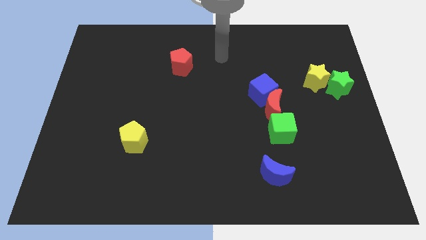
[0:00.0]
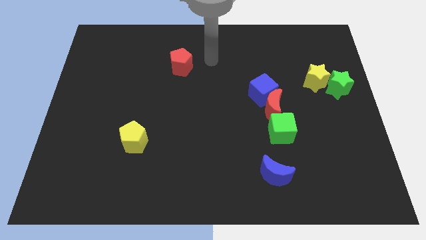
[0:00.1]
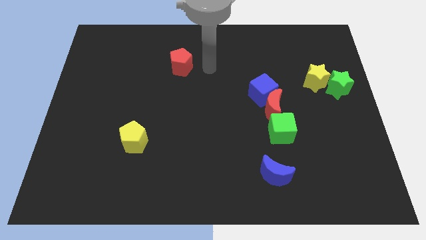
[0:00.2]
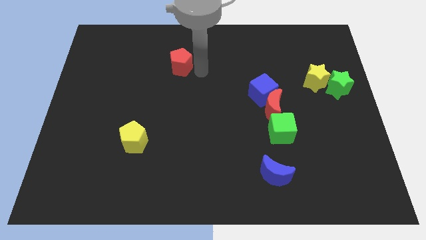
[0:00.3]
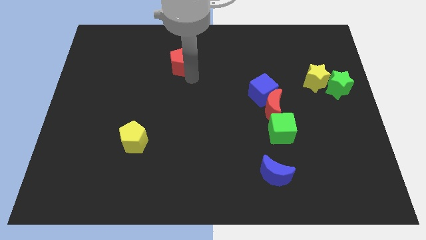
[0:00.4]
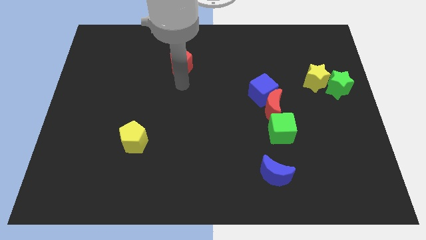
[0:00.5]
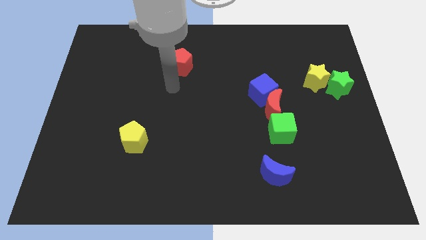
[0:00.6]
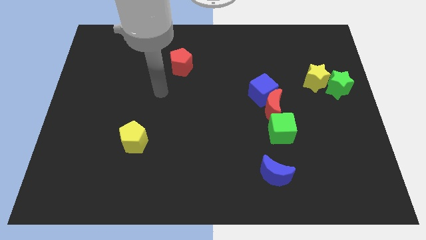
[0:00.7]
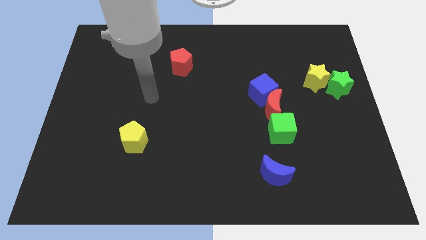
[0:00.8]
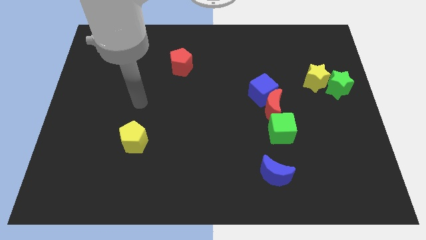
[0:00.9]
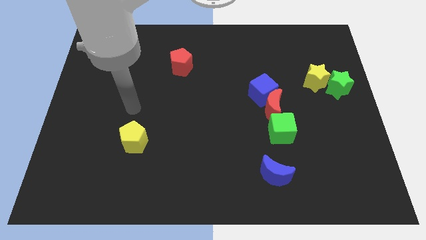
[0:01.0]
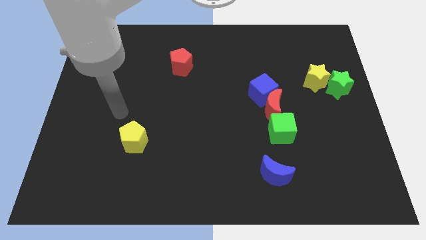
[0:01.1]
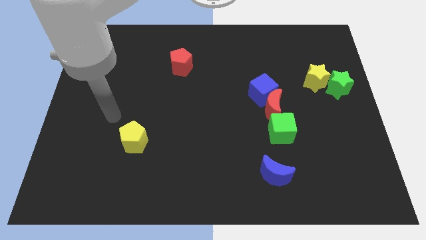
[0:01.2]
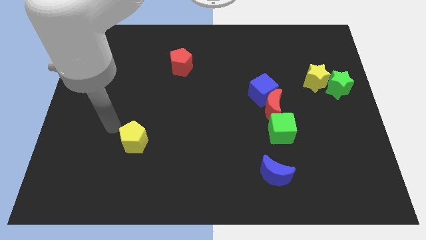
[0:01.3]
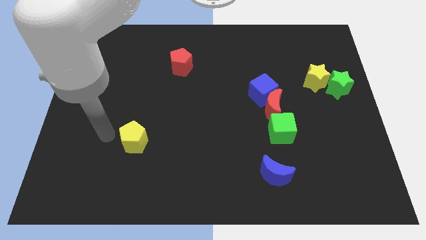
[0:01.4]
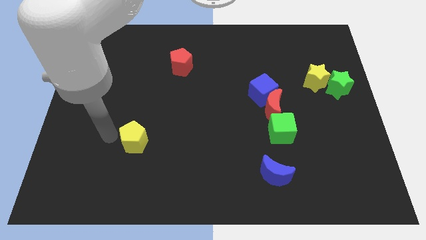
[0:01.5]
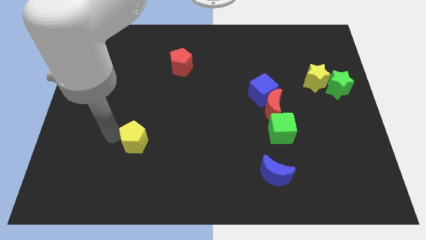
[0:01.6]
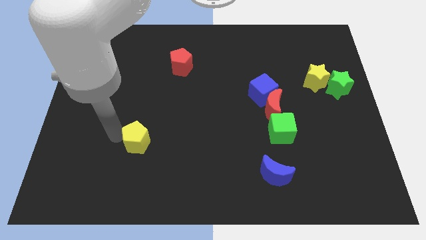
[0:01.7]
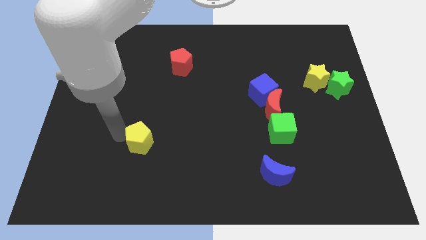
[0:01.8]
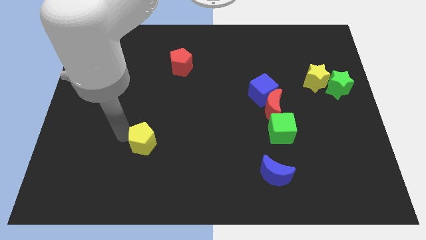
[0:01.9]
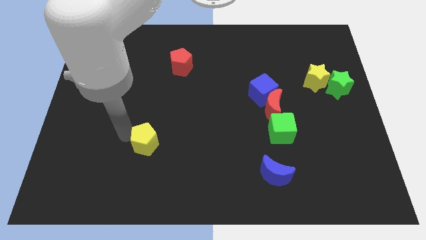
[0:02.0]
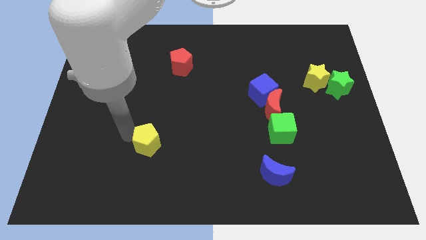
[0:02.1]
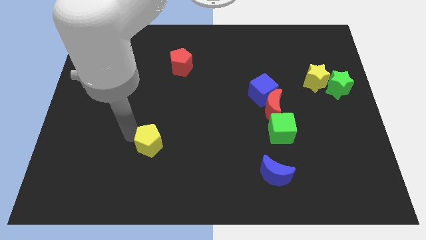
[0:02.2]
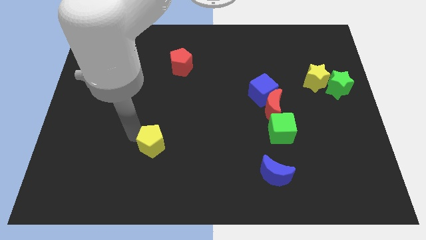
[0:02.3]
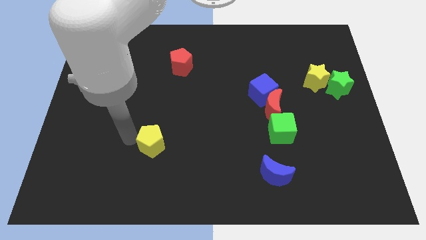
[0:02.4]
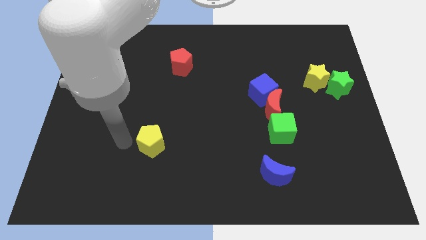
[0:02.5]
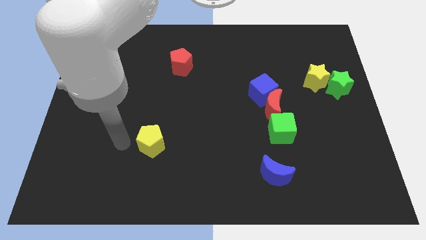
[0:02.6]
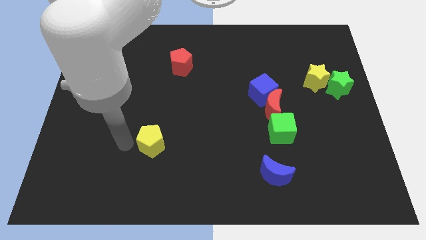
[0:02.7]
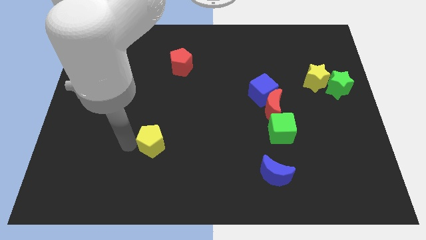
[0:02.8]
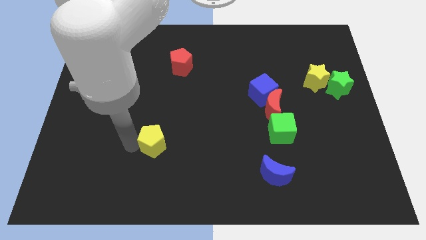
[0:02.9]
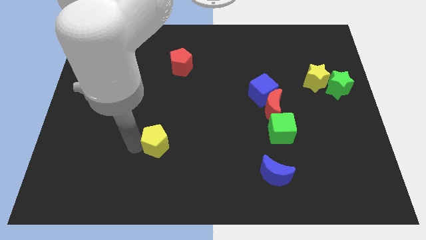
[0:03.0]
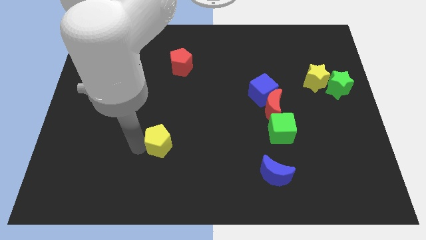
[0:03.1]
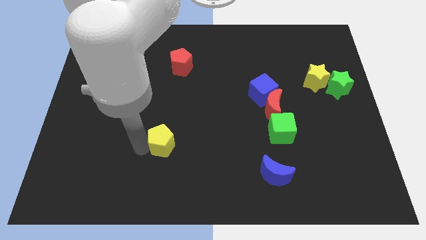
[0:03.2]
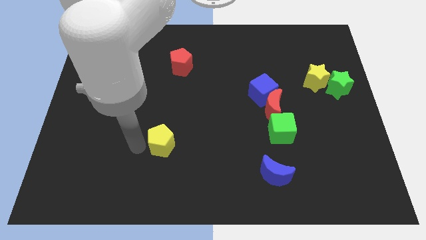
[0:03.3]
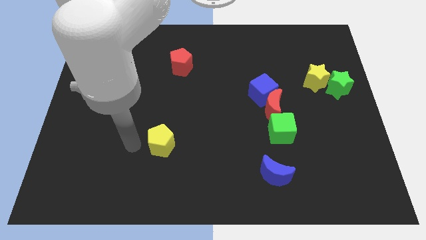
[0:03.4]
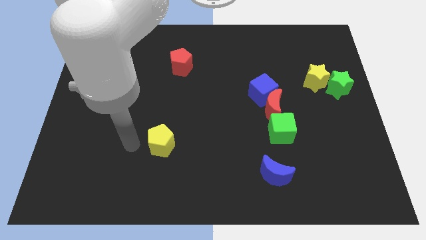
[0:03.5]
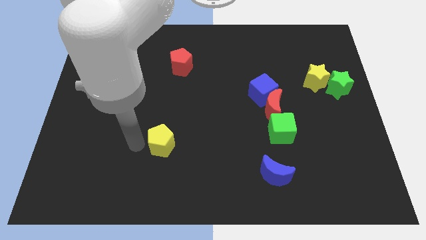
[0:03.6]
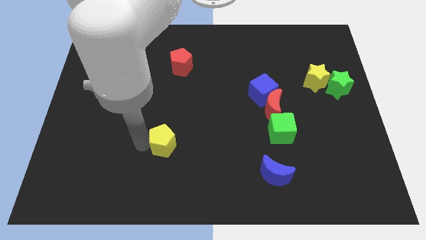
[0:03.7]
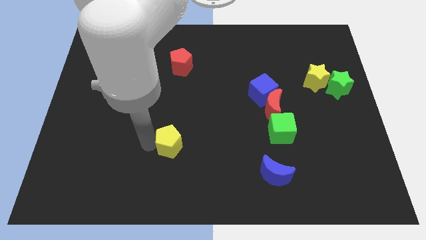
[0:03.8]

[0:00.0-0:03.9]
move the yellow pentagon a little bit right

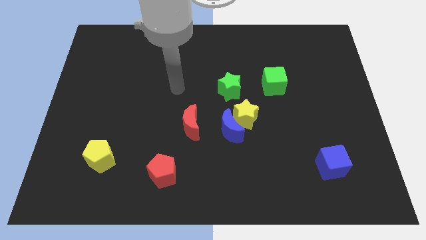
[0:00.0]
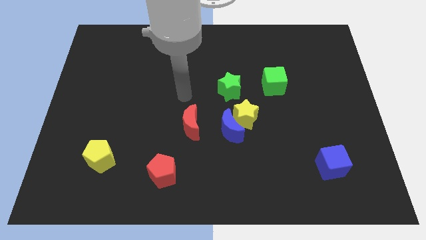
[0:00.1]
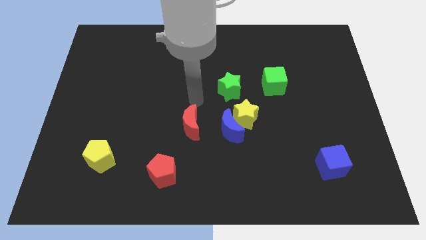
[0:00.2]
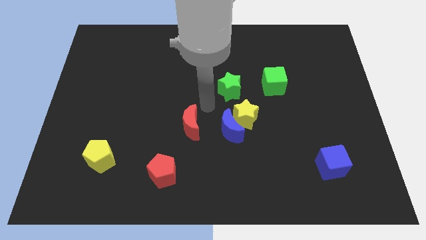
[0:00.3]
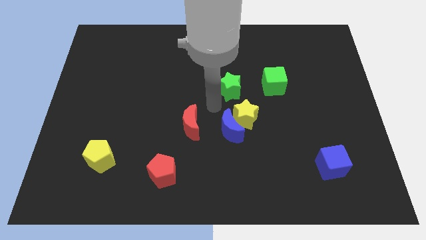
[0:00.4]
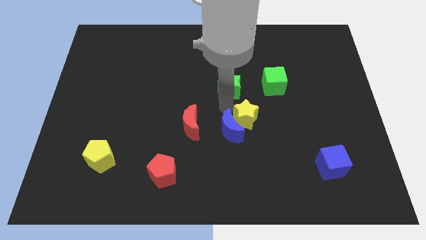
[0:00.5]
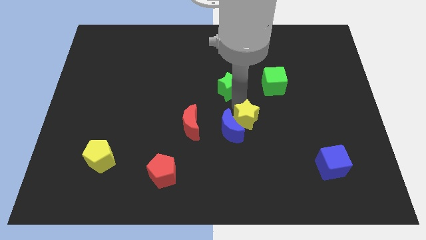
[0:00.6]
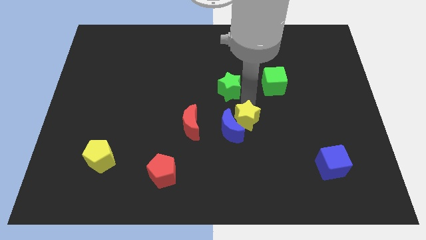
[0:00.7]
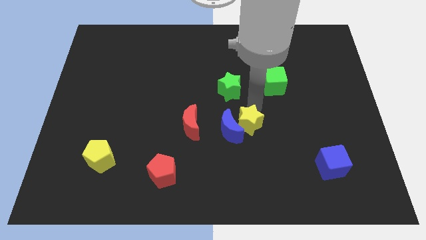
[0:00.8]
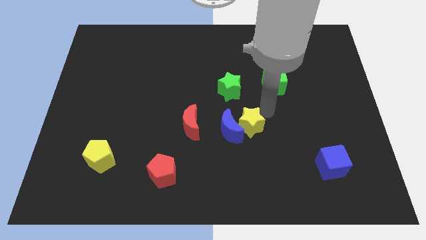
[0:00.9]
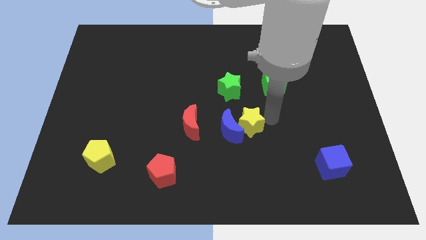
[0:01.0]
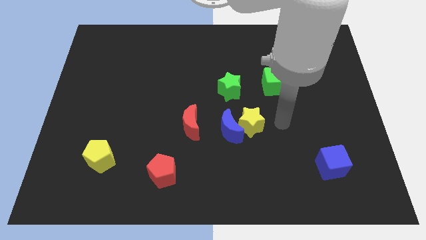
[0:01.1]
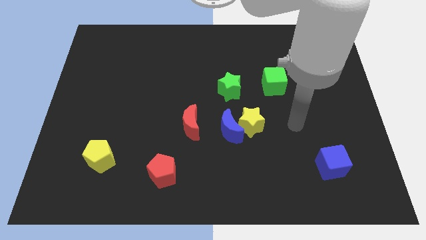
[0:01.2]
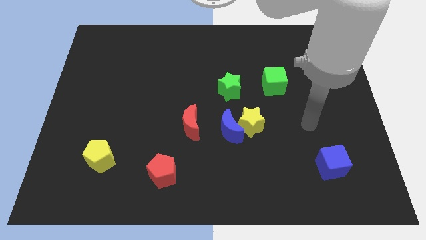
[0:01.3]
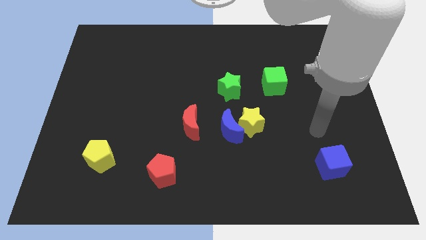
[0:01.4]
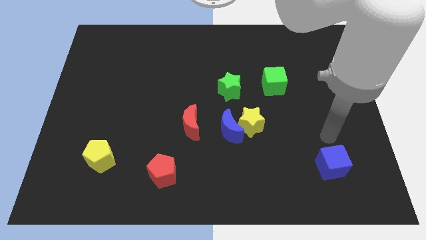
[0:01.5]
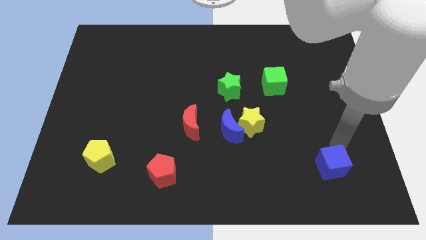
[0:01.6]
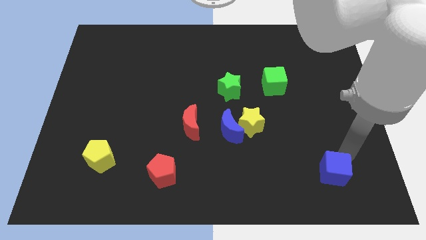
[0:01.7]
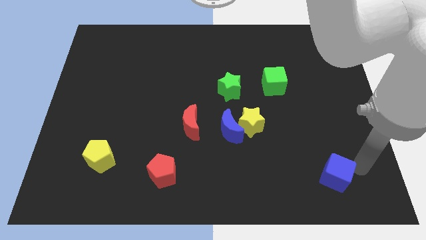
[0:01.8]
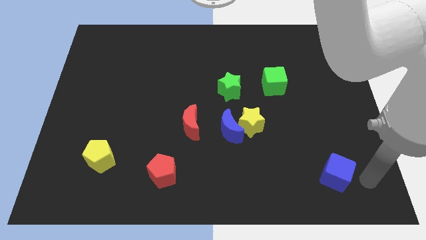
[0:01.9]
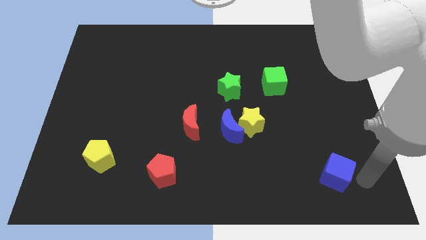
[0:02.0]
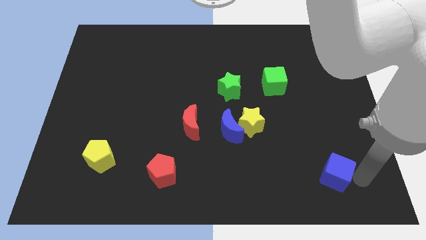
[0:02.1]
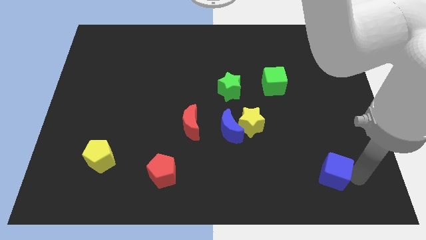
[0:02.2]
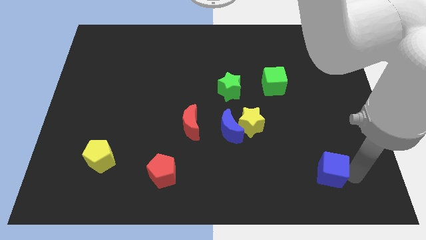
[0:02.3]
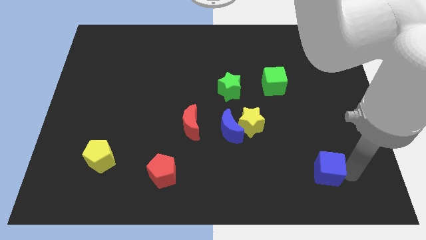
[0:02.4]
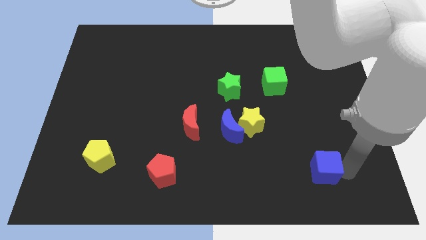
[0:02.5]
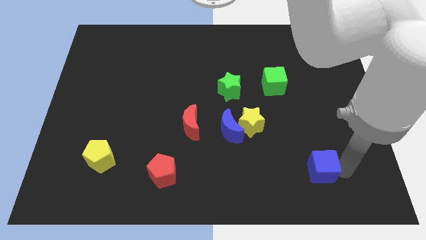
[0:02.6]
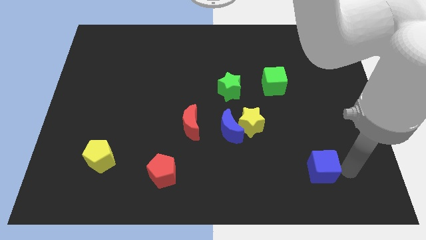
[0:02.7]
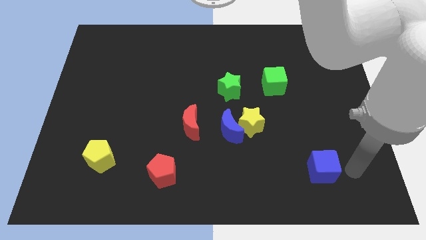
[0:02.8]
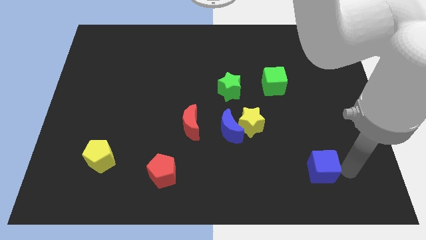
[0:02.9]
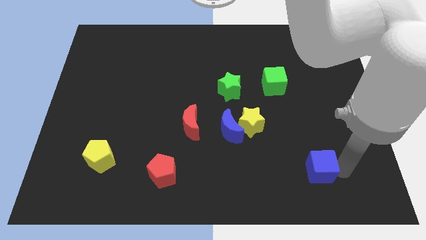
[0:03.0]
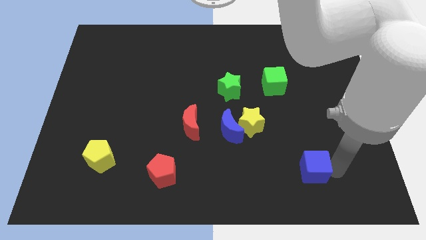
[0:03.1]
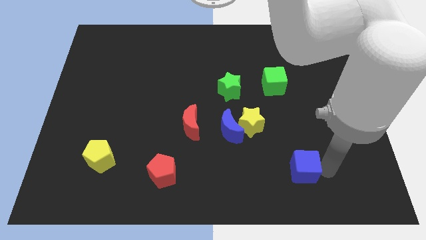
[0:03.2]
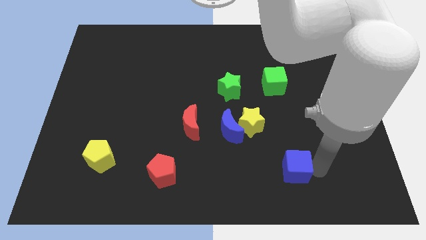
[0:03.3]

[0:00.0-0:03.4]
slightly slide the blue cube left

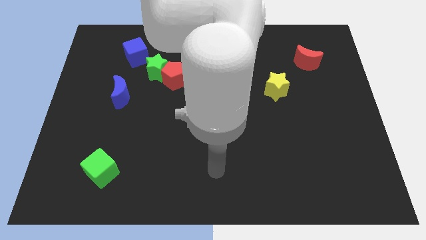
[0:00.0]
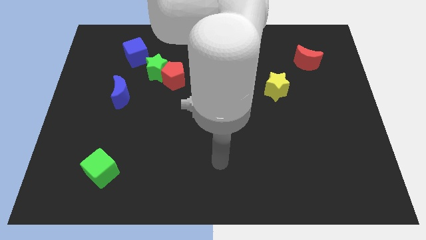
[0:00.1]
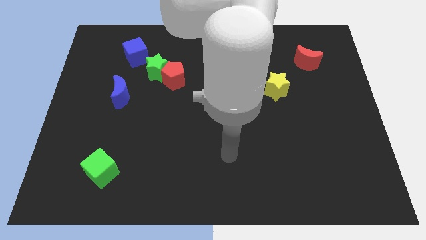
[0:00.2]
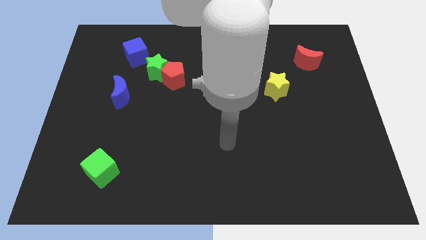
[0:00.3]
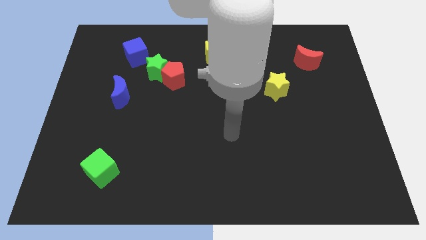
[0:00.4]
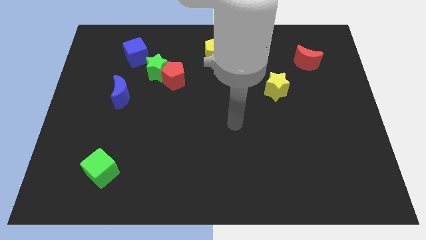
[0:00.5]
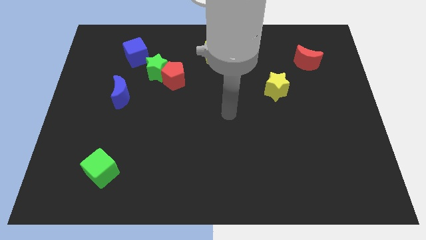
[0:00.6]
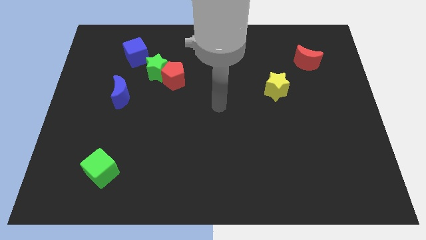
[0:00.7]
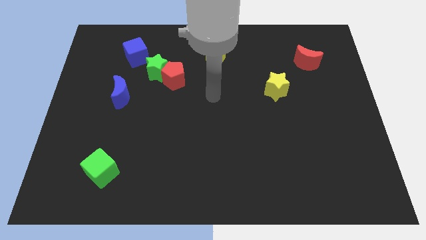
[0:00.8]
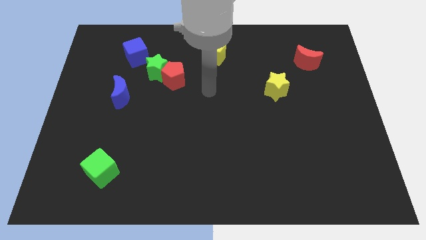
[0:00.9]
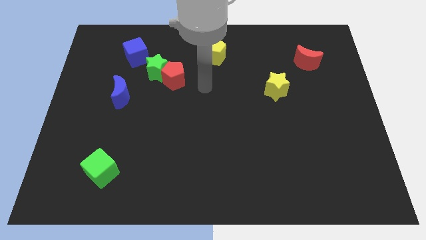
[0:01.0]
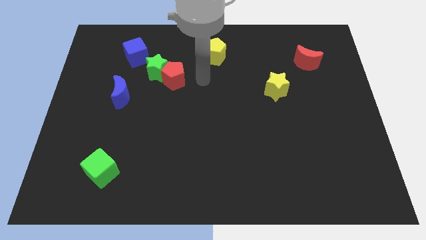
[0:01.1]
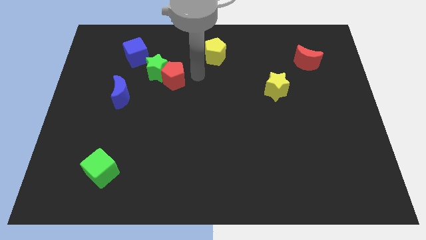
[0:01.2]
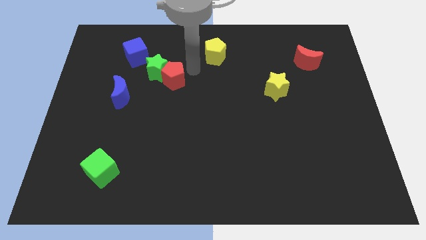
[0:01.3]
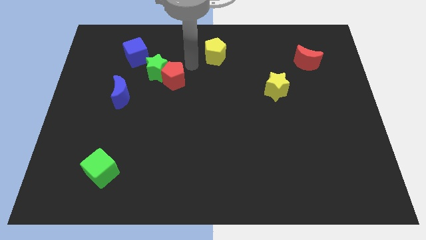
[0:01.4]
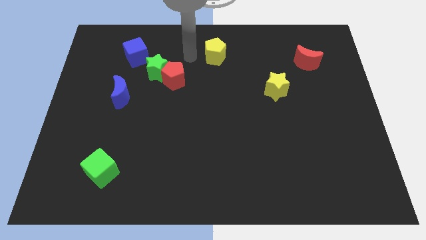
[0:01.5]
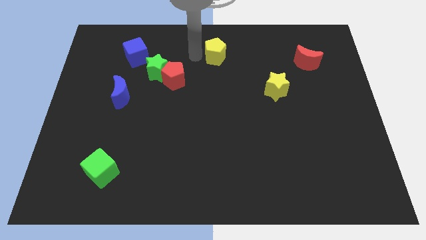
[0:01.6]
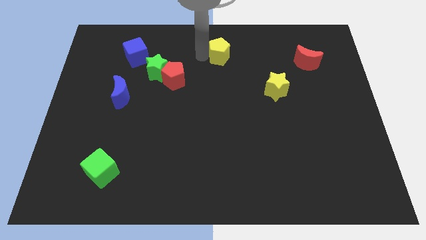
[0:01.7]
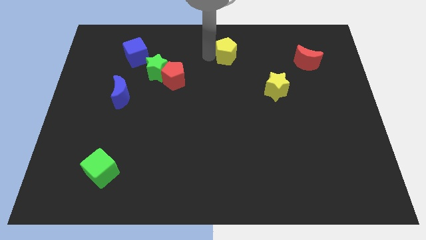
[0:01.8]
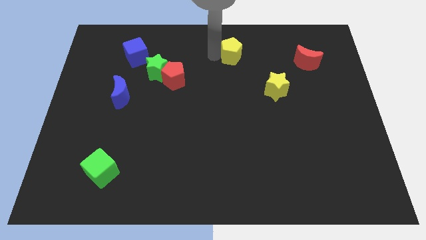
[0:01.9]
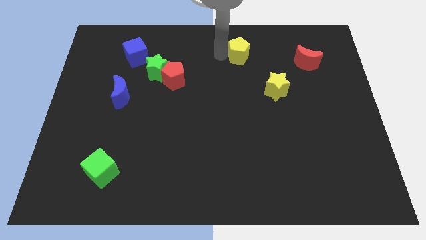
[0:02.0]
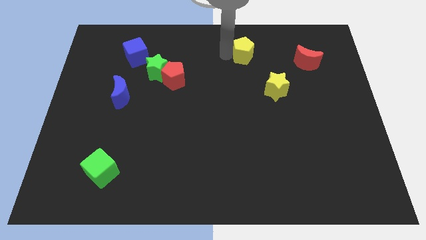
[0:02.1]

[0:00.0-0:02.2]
slightly push the yellow pentagon right
